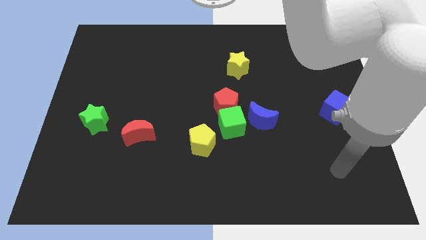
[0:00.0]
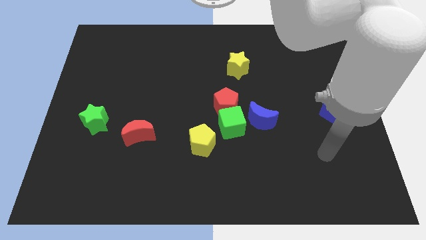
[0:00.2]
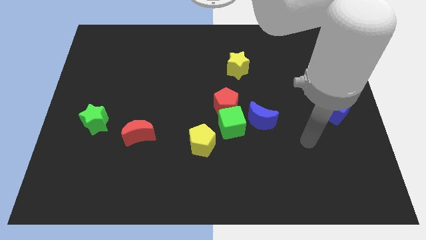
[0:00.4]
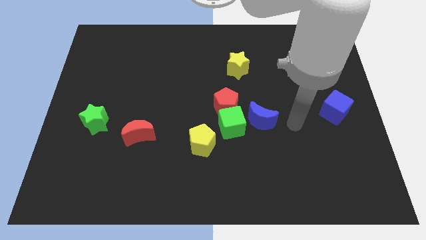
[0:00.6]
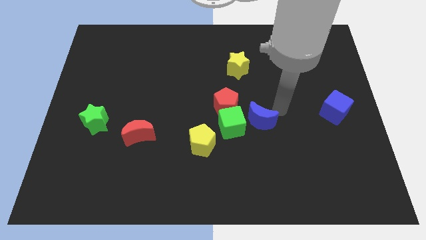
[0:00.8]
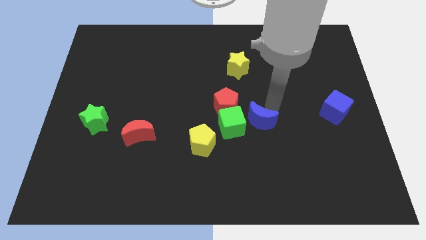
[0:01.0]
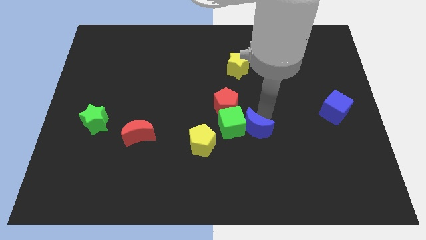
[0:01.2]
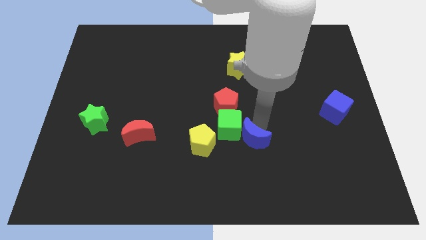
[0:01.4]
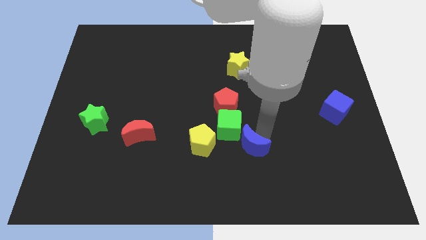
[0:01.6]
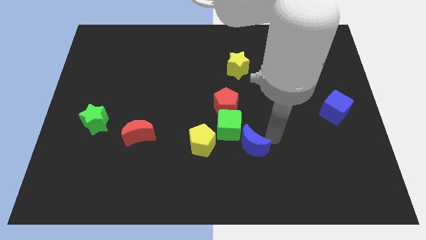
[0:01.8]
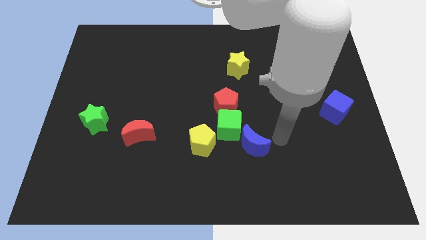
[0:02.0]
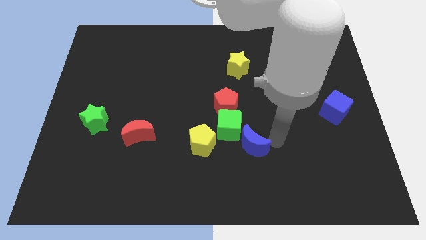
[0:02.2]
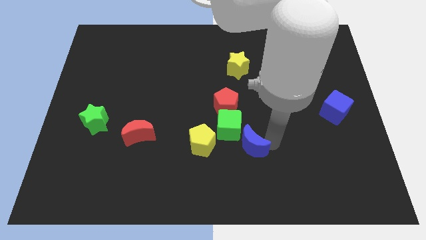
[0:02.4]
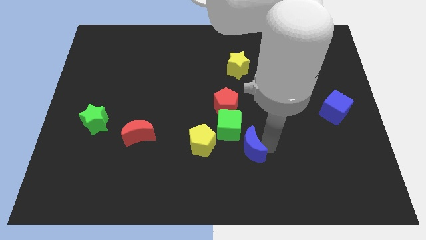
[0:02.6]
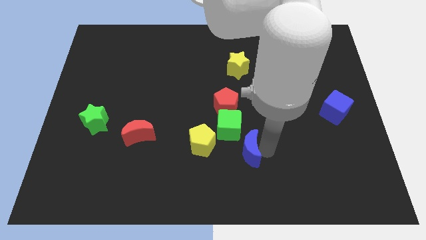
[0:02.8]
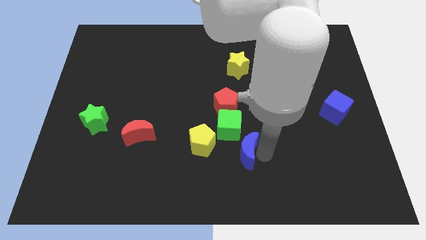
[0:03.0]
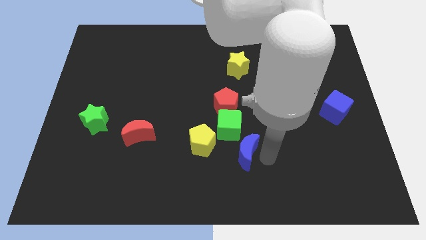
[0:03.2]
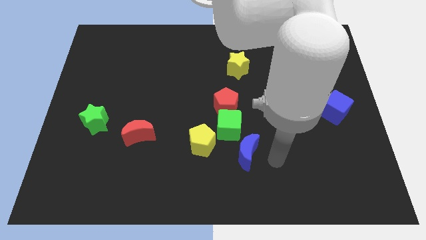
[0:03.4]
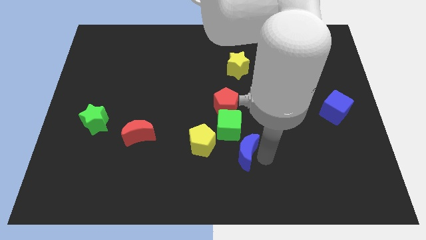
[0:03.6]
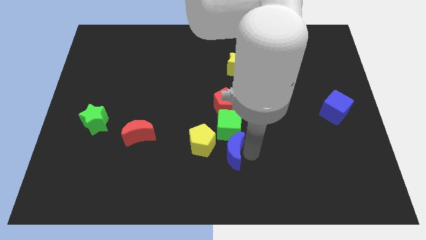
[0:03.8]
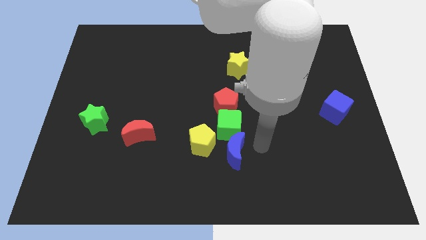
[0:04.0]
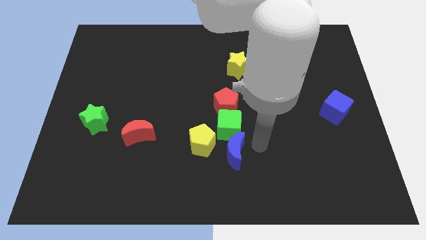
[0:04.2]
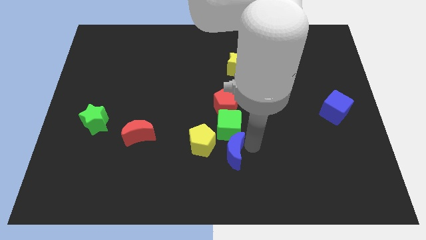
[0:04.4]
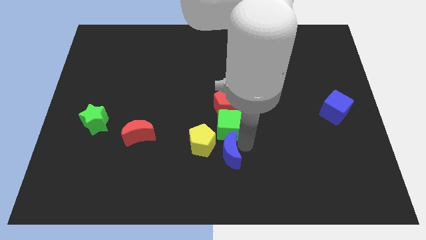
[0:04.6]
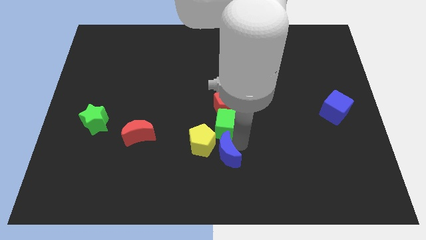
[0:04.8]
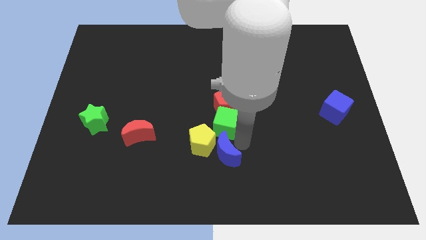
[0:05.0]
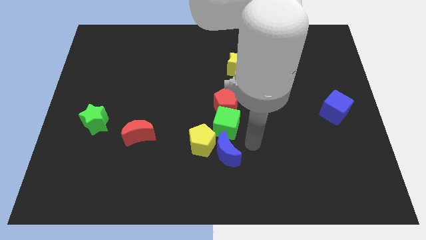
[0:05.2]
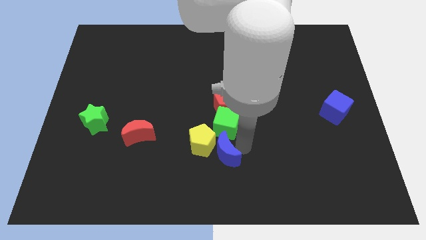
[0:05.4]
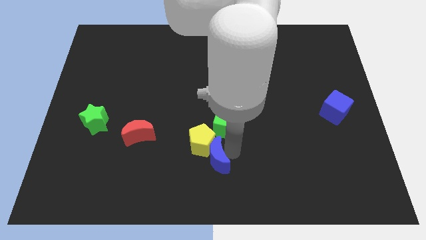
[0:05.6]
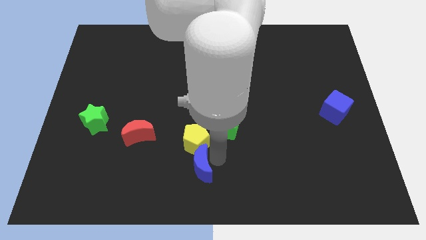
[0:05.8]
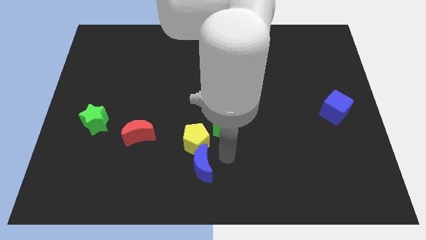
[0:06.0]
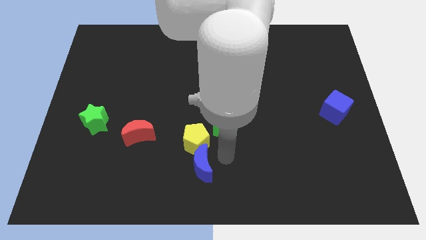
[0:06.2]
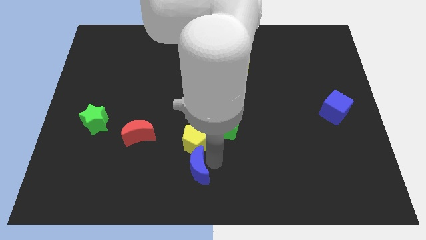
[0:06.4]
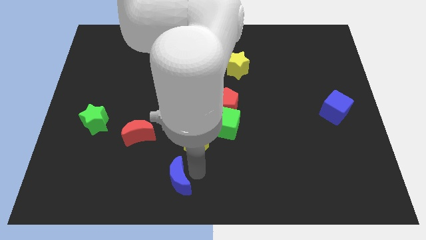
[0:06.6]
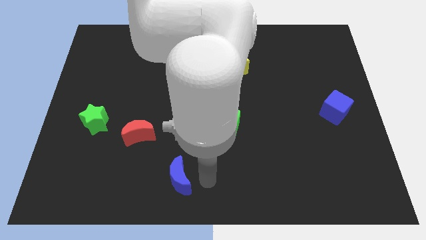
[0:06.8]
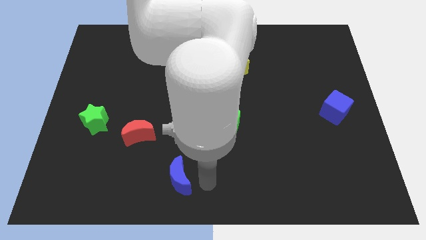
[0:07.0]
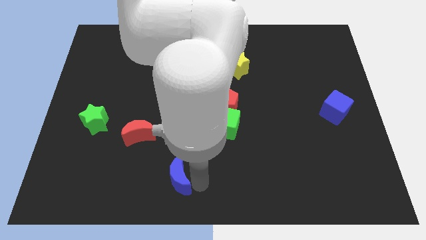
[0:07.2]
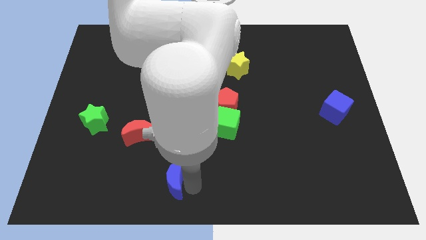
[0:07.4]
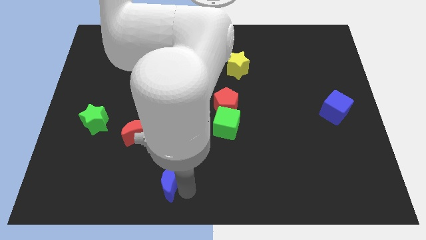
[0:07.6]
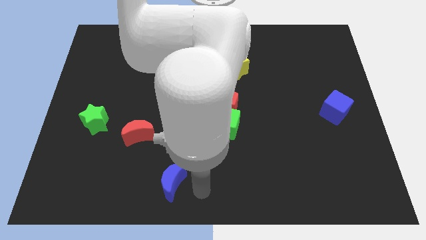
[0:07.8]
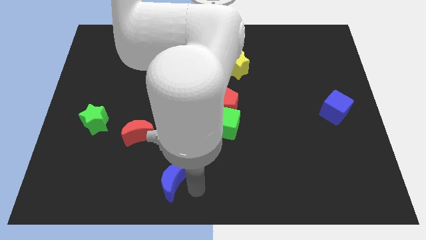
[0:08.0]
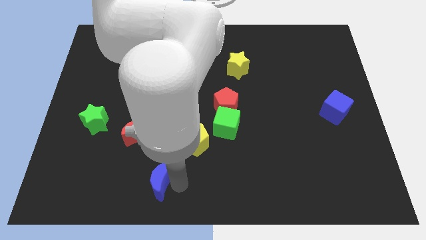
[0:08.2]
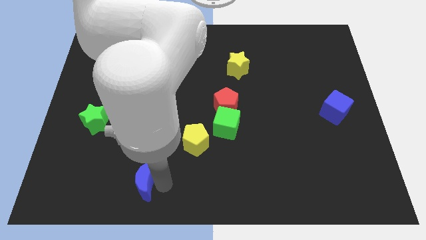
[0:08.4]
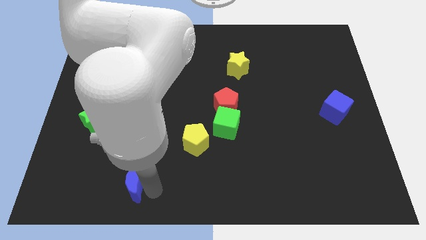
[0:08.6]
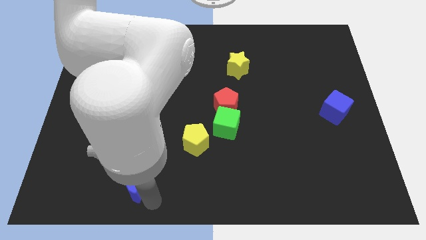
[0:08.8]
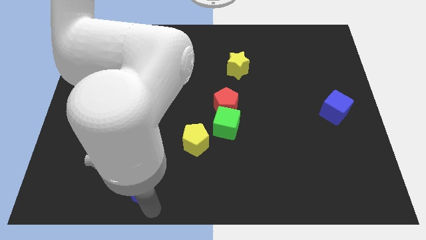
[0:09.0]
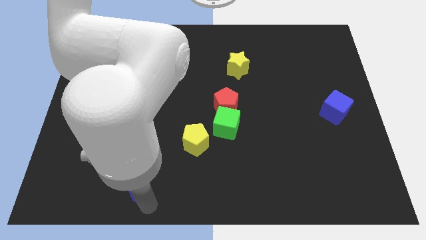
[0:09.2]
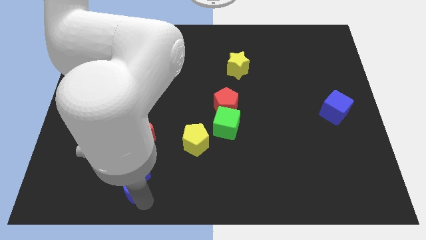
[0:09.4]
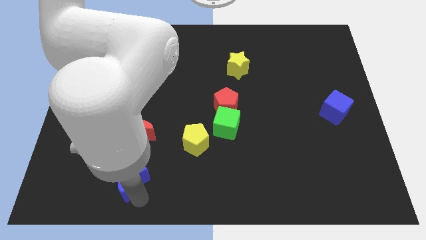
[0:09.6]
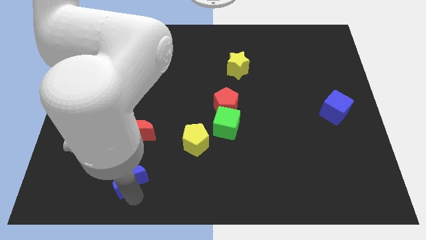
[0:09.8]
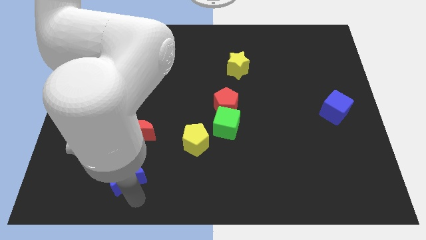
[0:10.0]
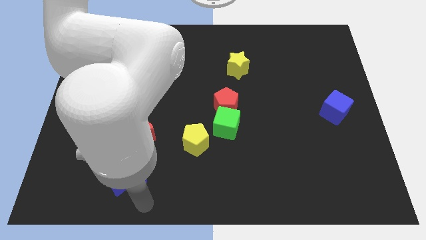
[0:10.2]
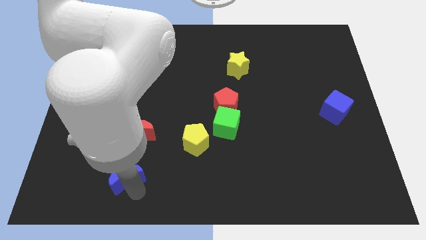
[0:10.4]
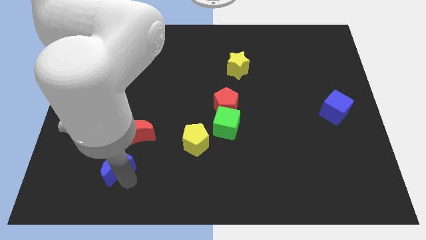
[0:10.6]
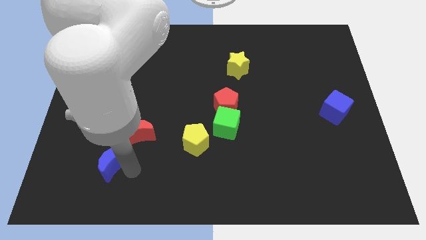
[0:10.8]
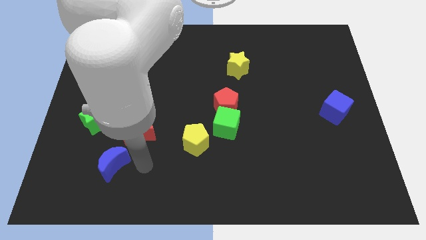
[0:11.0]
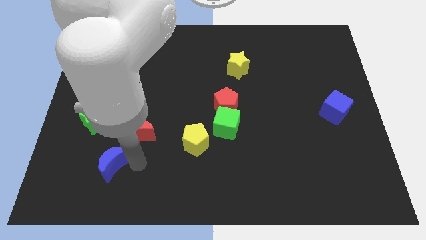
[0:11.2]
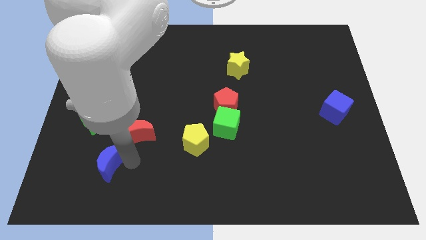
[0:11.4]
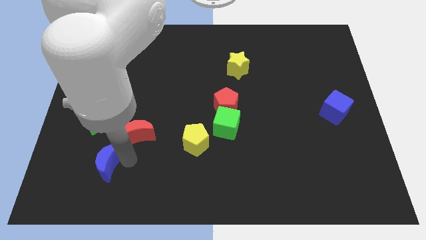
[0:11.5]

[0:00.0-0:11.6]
move the blue moon to the bottom side of the green star

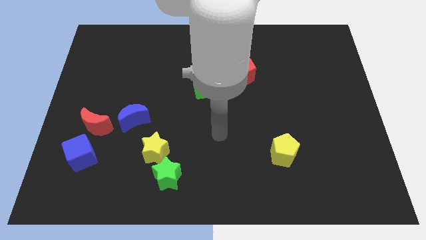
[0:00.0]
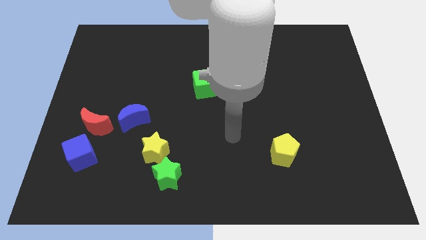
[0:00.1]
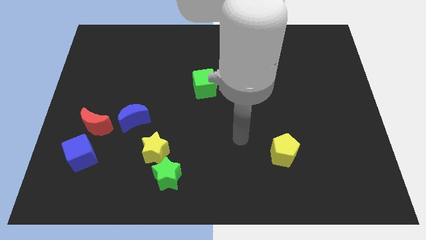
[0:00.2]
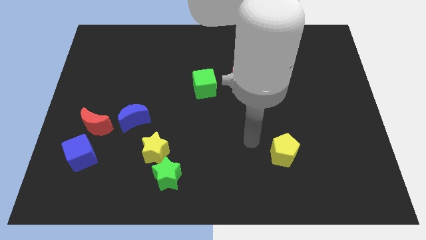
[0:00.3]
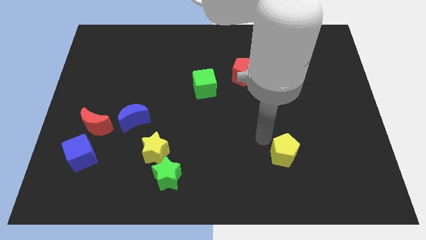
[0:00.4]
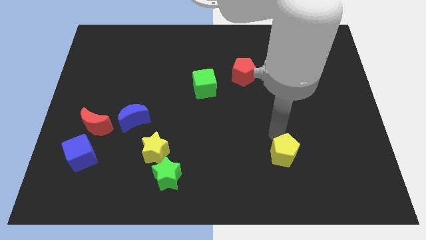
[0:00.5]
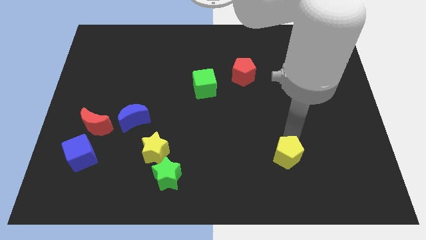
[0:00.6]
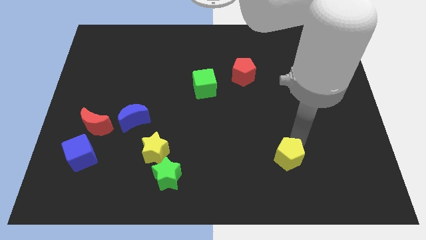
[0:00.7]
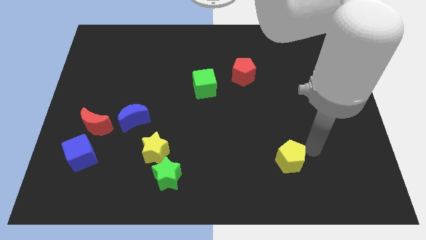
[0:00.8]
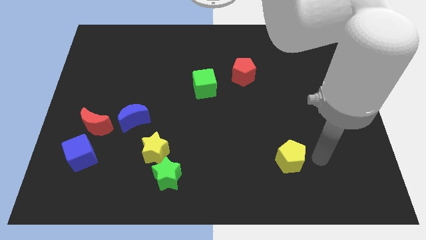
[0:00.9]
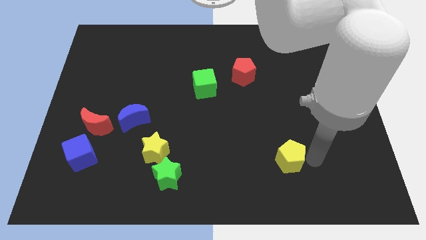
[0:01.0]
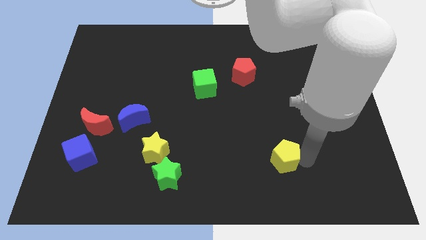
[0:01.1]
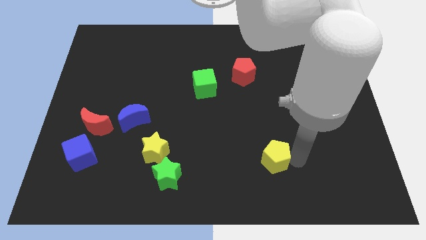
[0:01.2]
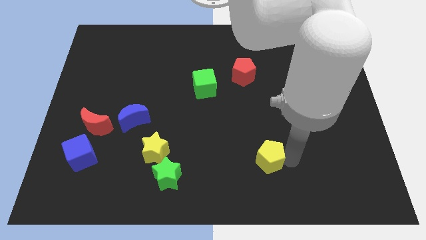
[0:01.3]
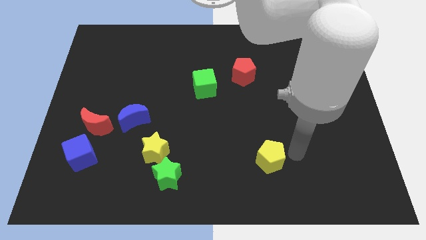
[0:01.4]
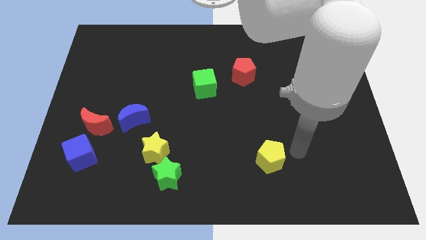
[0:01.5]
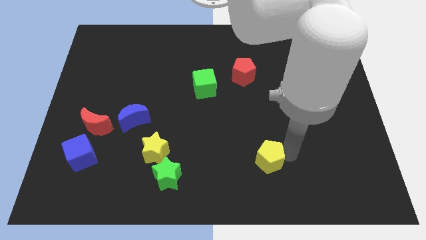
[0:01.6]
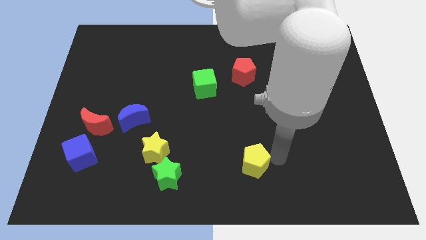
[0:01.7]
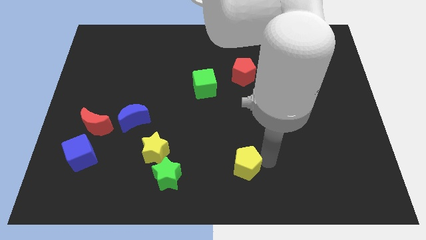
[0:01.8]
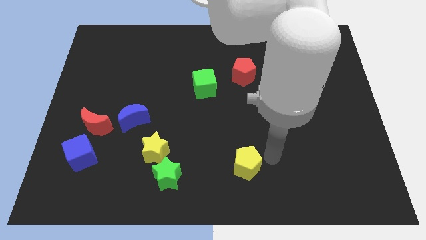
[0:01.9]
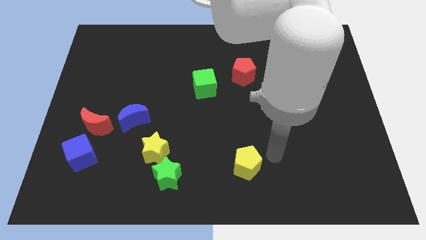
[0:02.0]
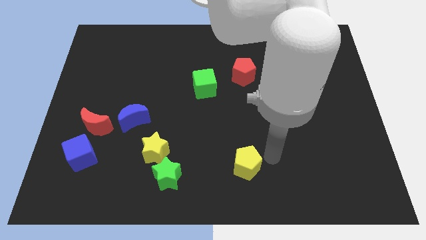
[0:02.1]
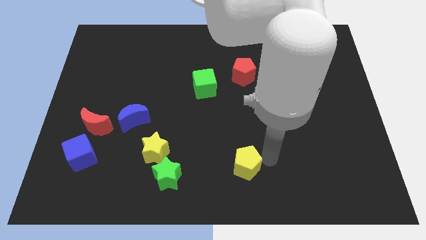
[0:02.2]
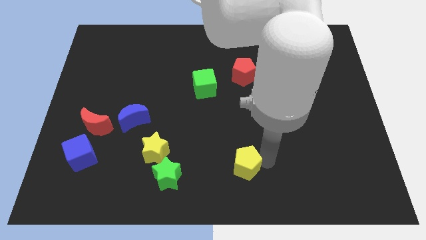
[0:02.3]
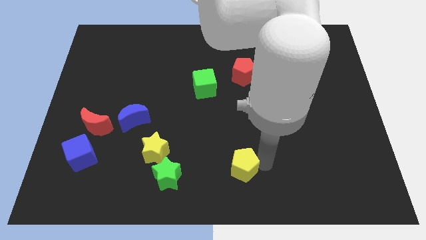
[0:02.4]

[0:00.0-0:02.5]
put the yellow pentagon to the right side of the green star
